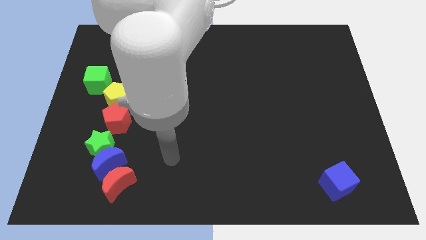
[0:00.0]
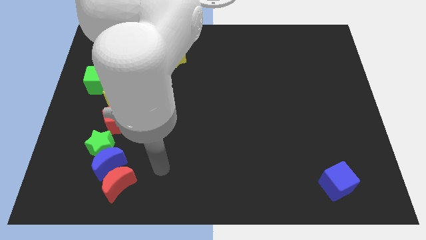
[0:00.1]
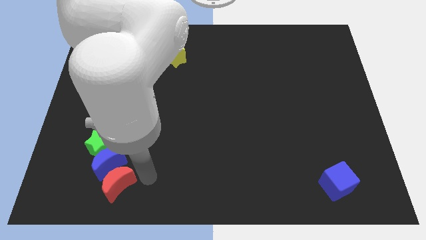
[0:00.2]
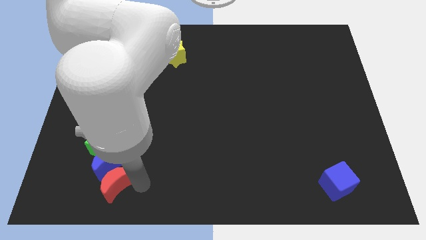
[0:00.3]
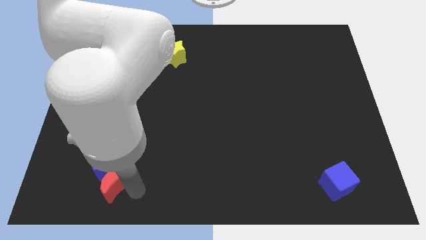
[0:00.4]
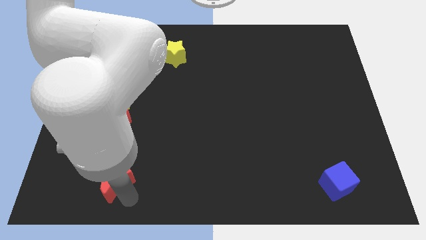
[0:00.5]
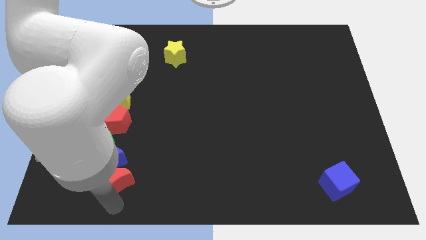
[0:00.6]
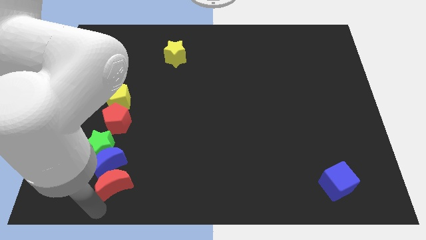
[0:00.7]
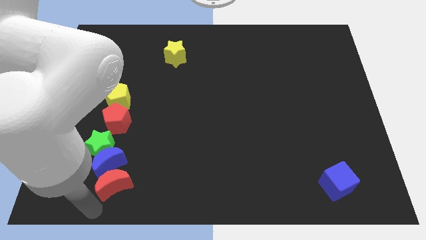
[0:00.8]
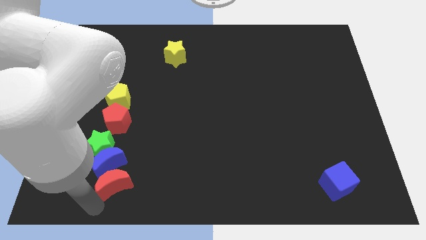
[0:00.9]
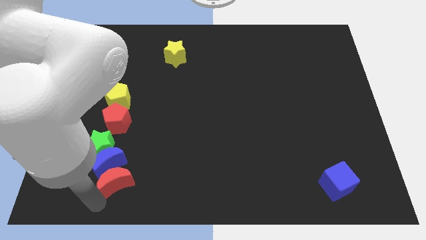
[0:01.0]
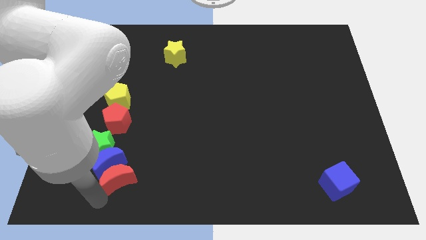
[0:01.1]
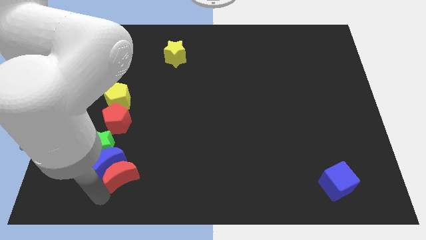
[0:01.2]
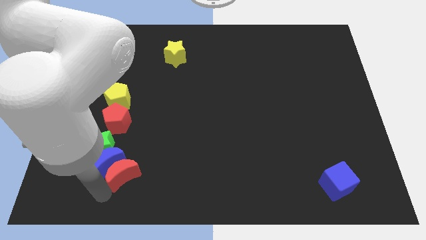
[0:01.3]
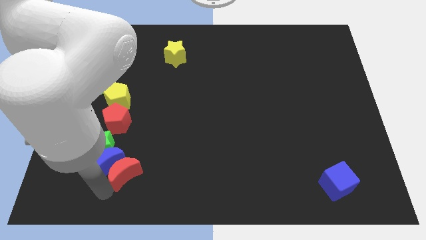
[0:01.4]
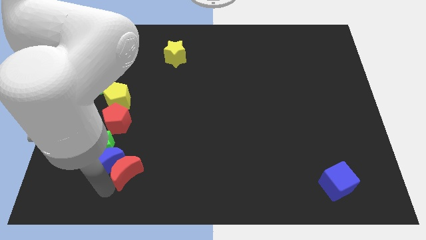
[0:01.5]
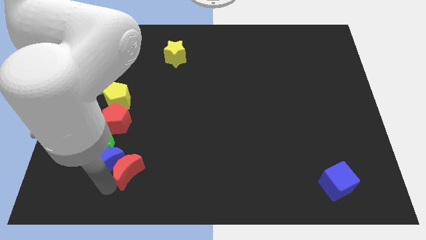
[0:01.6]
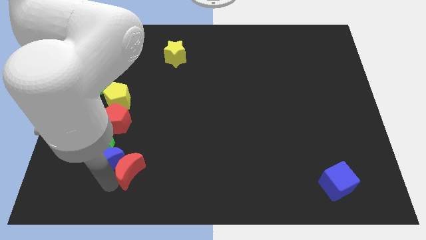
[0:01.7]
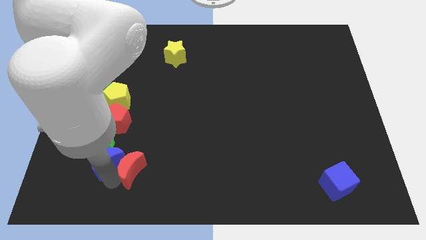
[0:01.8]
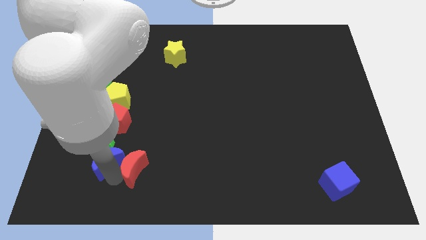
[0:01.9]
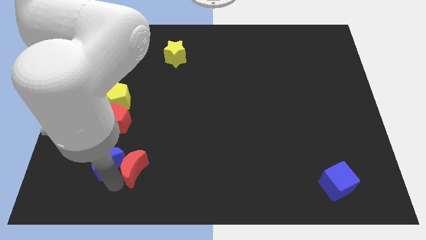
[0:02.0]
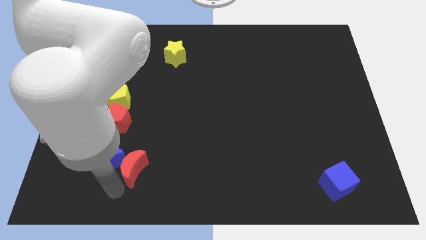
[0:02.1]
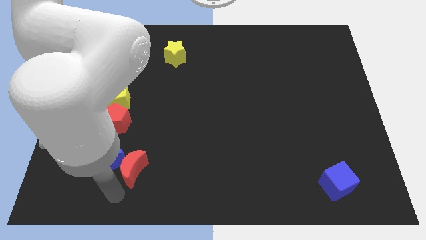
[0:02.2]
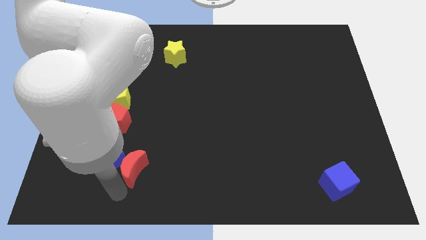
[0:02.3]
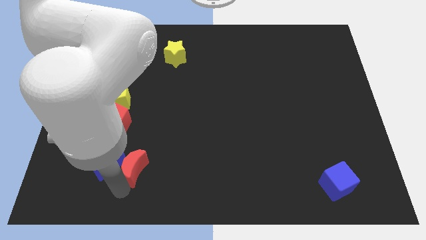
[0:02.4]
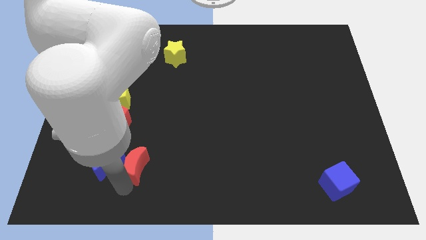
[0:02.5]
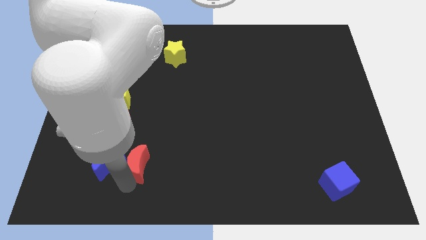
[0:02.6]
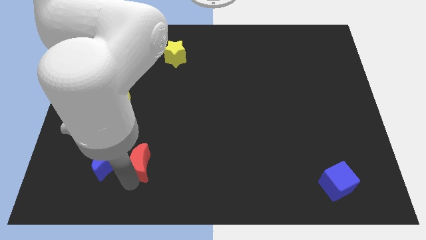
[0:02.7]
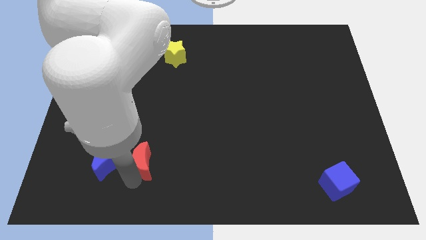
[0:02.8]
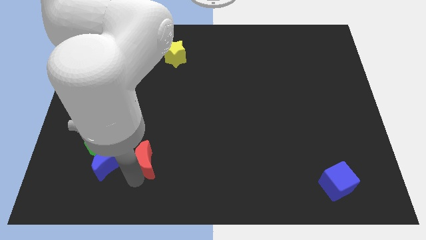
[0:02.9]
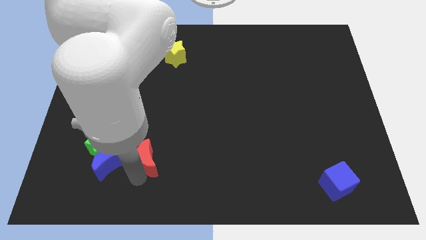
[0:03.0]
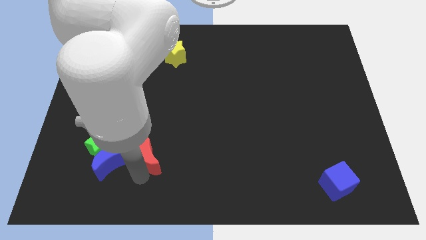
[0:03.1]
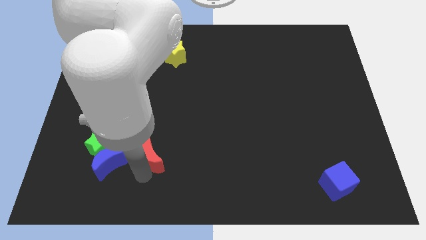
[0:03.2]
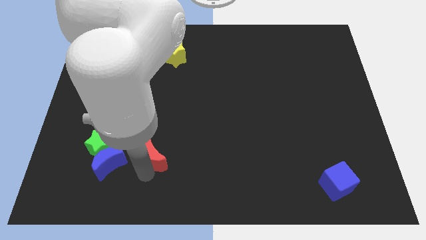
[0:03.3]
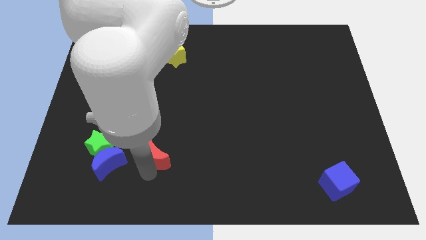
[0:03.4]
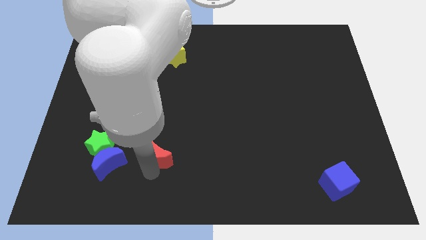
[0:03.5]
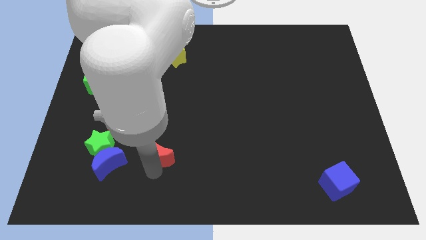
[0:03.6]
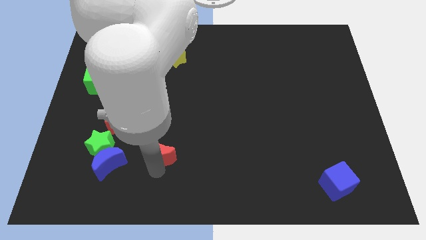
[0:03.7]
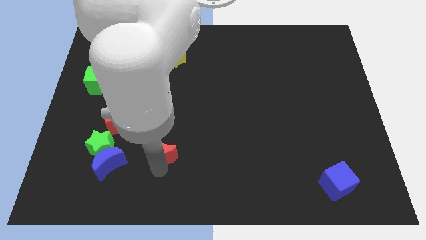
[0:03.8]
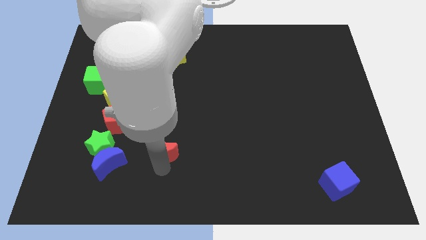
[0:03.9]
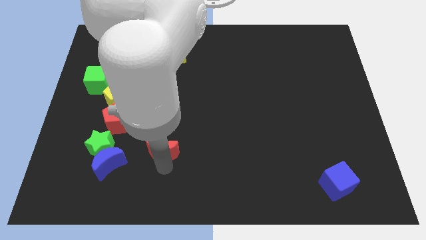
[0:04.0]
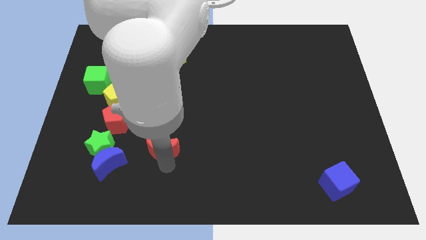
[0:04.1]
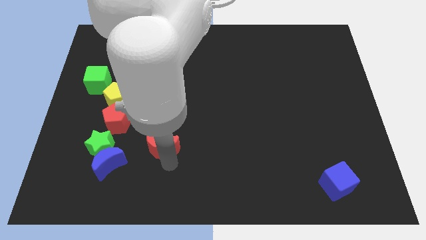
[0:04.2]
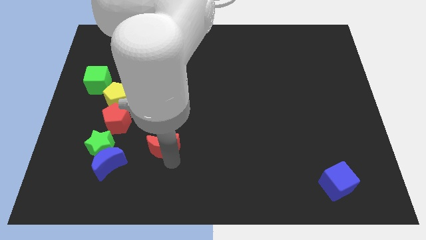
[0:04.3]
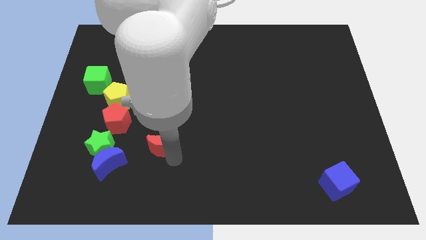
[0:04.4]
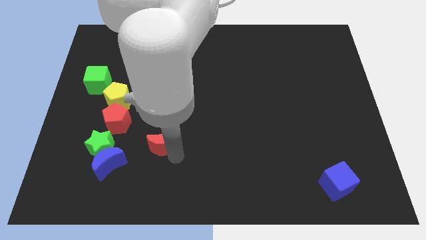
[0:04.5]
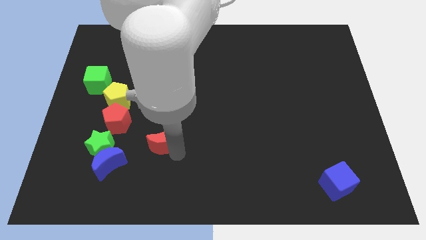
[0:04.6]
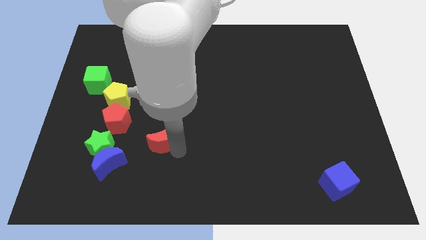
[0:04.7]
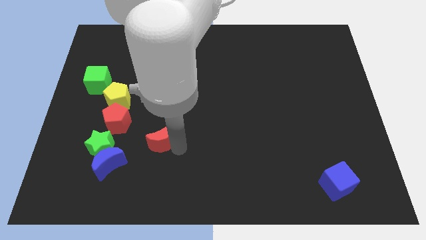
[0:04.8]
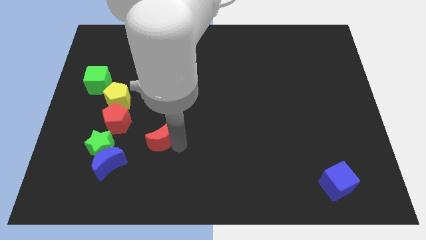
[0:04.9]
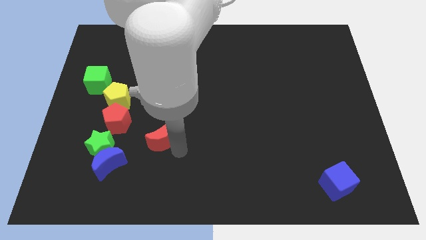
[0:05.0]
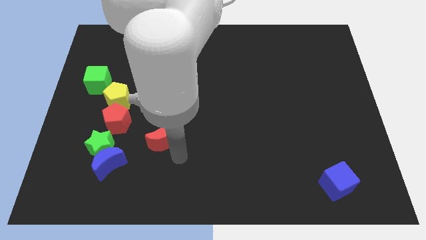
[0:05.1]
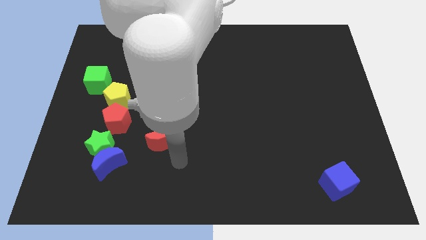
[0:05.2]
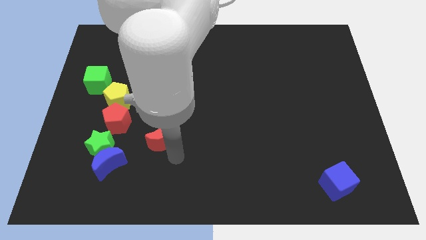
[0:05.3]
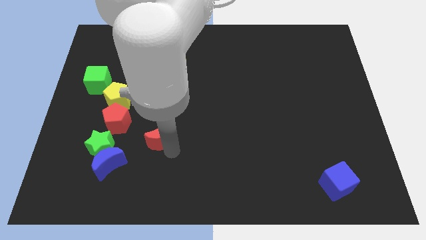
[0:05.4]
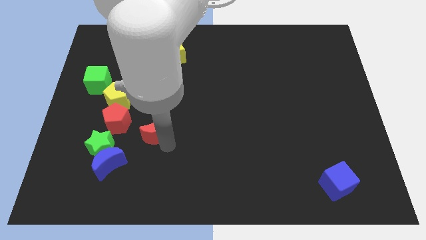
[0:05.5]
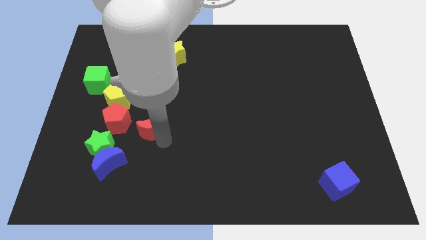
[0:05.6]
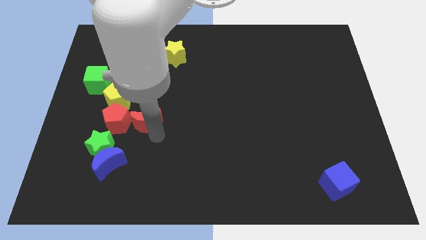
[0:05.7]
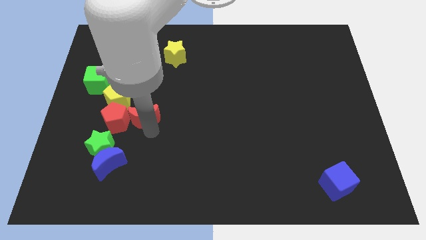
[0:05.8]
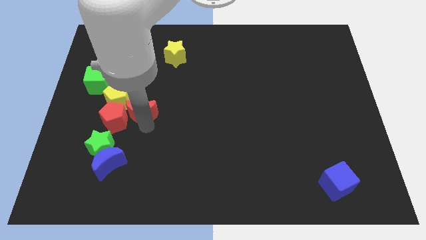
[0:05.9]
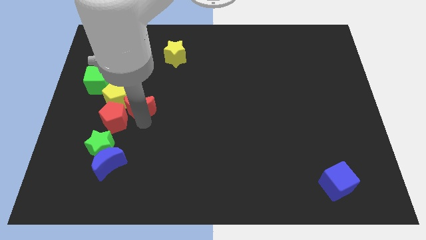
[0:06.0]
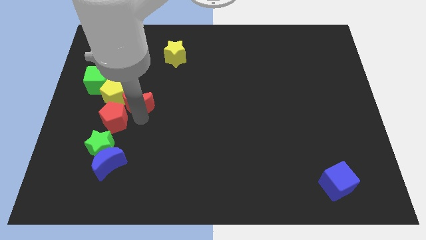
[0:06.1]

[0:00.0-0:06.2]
move the red moon up

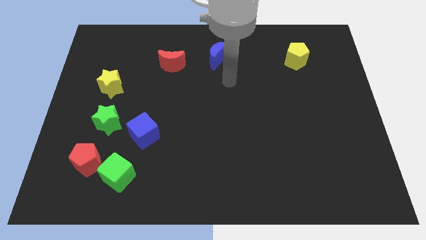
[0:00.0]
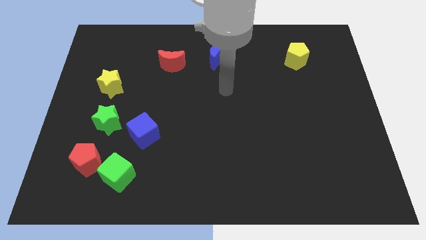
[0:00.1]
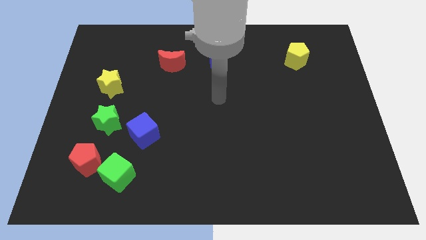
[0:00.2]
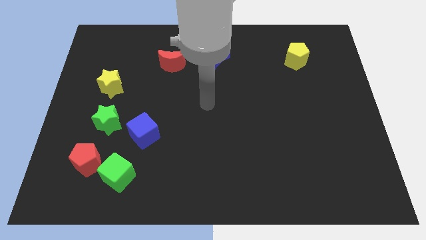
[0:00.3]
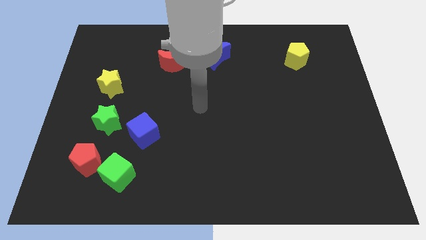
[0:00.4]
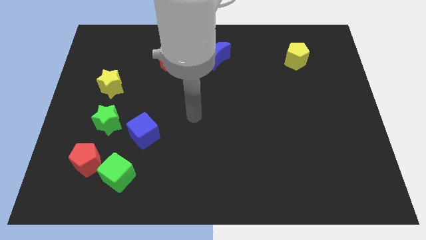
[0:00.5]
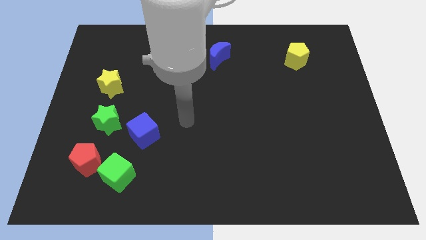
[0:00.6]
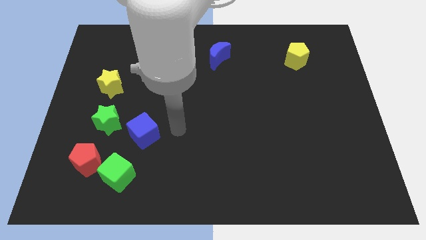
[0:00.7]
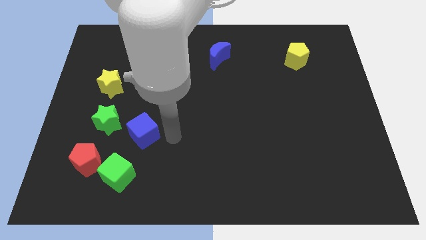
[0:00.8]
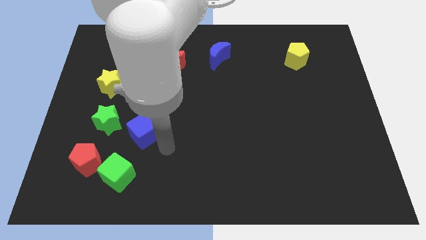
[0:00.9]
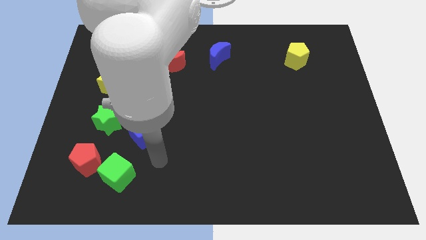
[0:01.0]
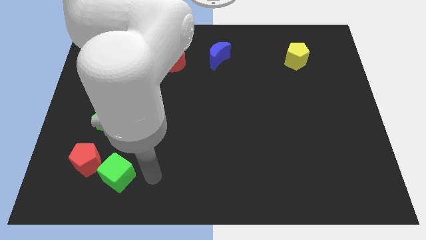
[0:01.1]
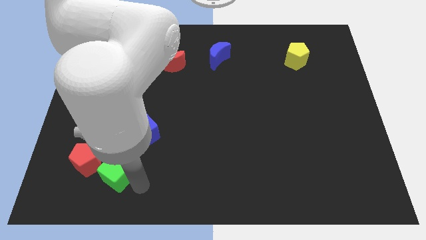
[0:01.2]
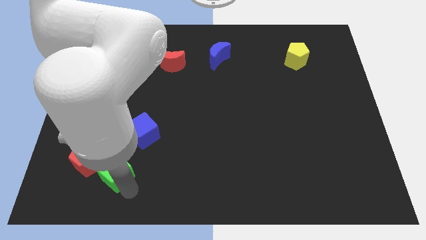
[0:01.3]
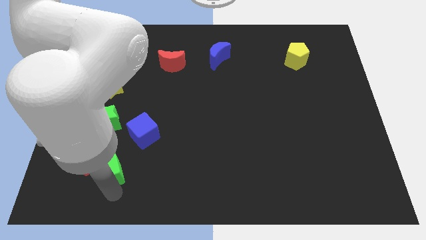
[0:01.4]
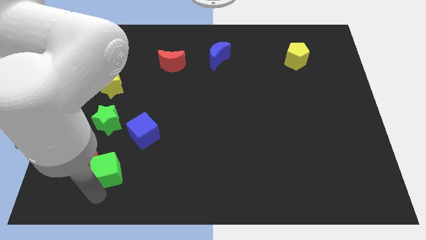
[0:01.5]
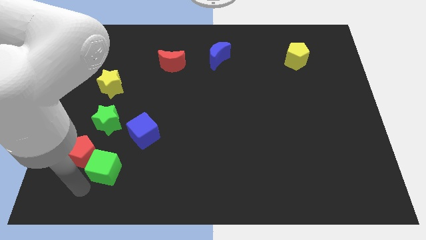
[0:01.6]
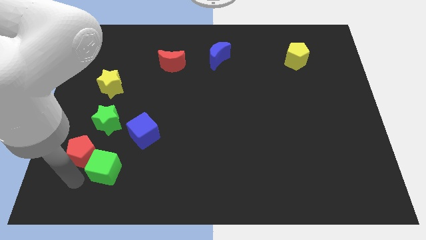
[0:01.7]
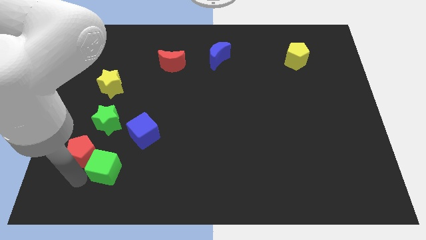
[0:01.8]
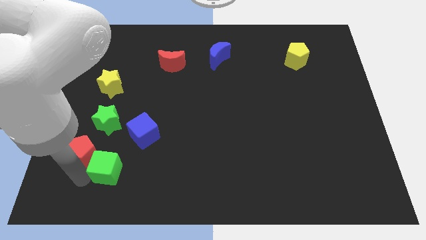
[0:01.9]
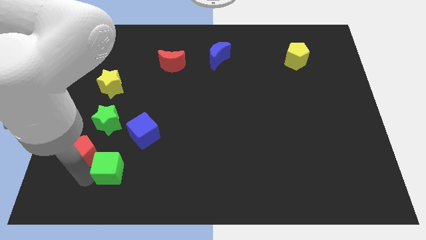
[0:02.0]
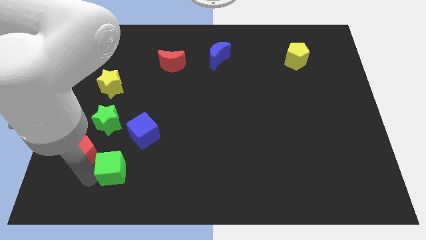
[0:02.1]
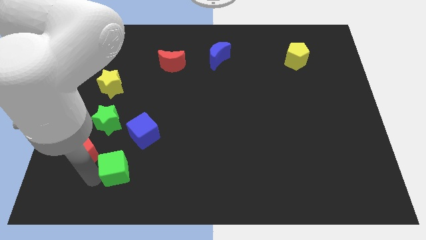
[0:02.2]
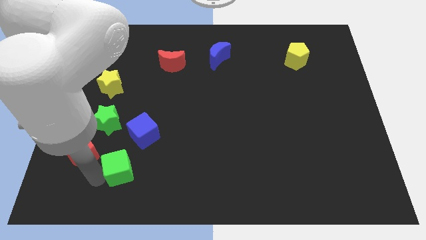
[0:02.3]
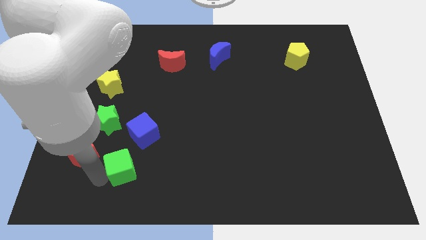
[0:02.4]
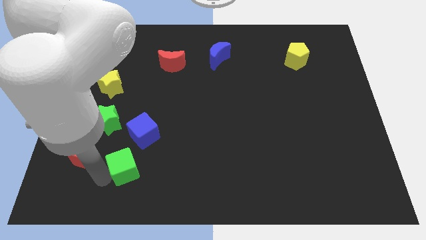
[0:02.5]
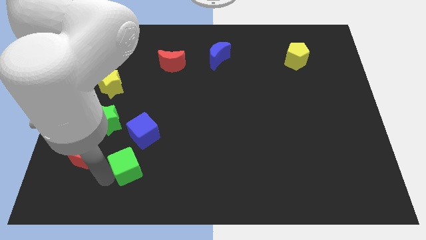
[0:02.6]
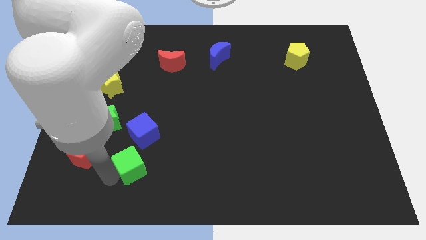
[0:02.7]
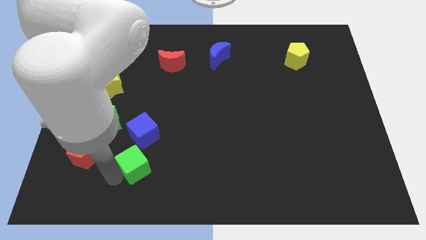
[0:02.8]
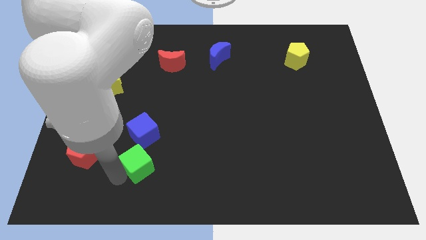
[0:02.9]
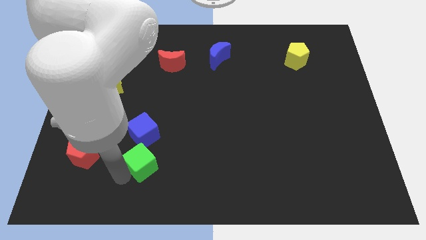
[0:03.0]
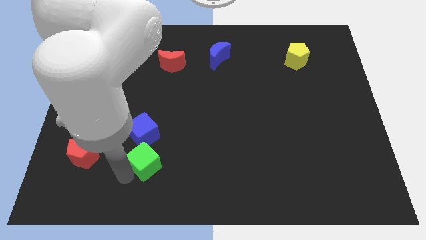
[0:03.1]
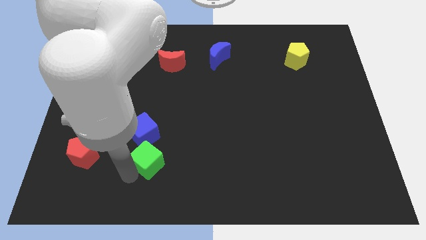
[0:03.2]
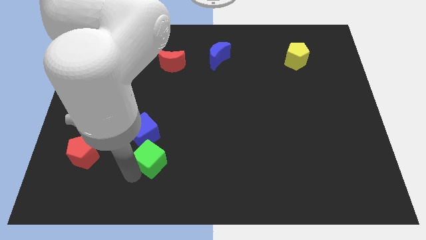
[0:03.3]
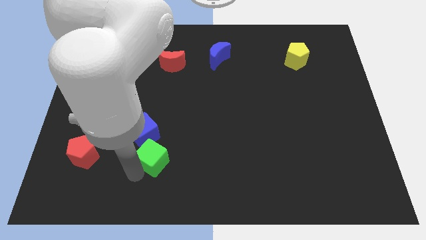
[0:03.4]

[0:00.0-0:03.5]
slide the green cube a bit upwards and then to the right
